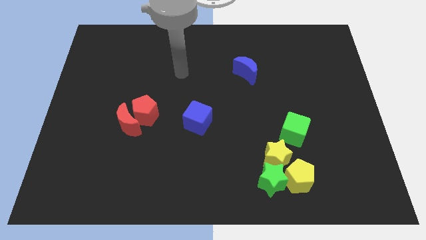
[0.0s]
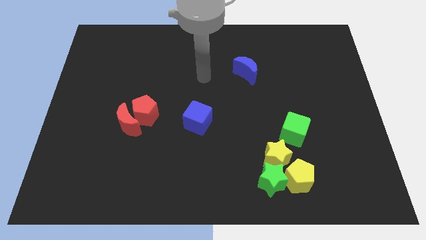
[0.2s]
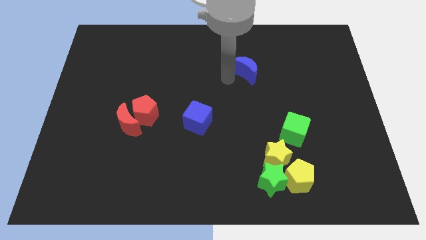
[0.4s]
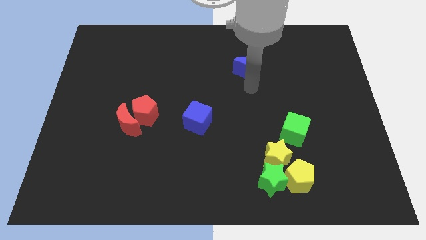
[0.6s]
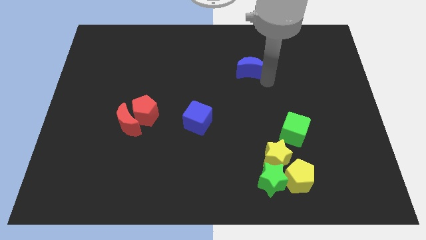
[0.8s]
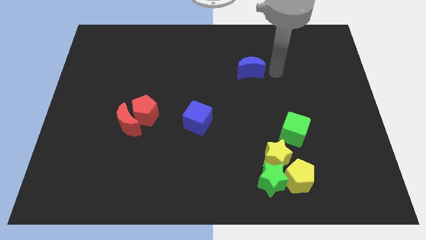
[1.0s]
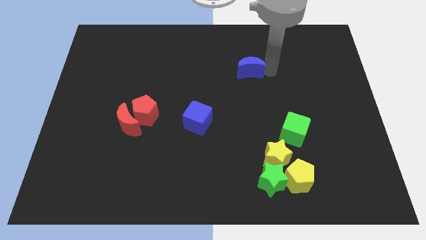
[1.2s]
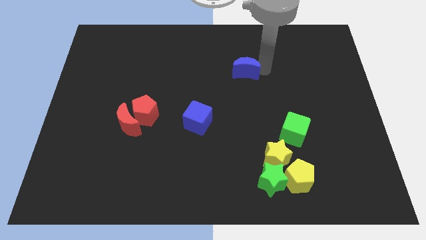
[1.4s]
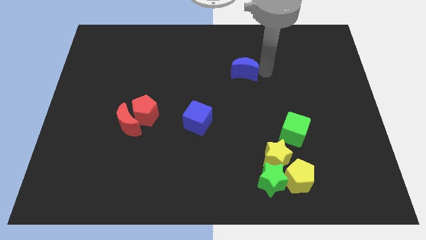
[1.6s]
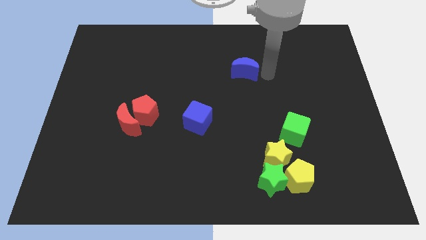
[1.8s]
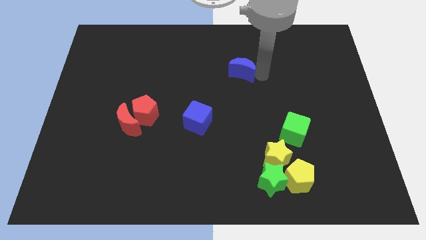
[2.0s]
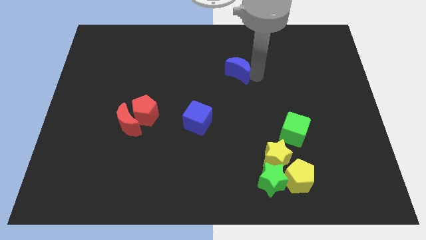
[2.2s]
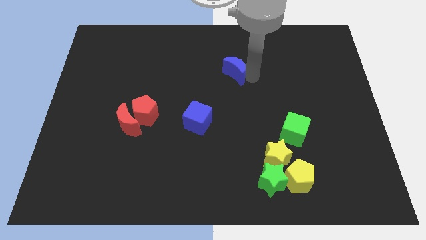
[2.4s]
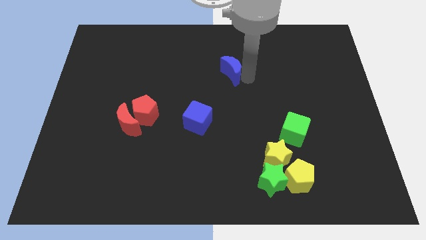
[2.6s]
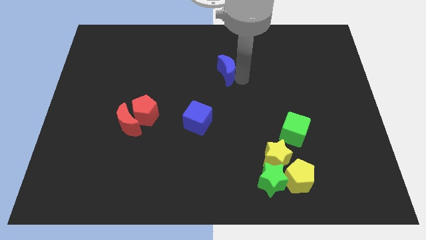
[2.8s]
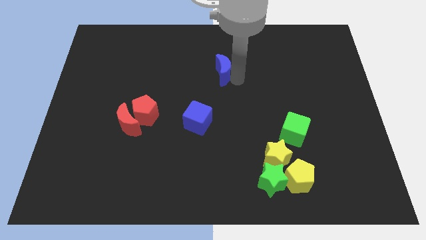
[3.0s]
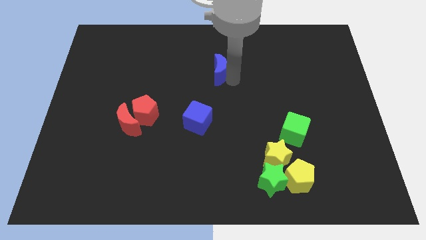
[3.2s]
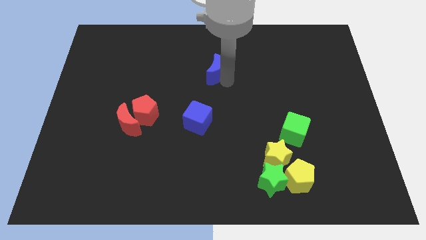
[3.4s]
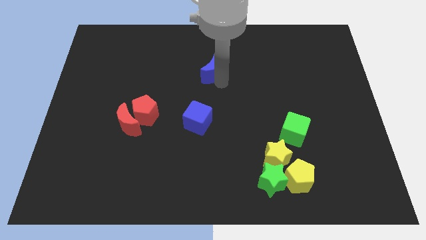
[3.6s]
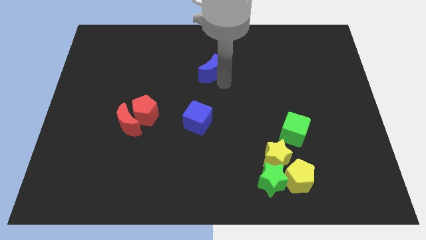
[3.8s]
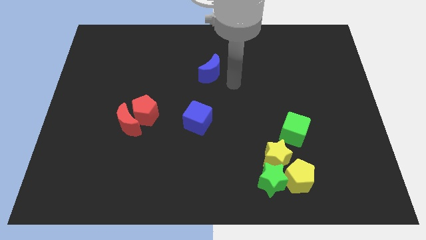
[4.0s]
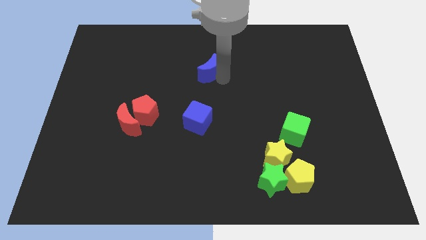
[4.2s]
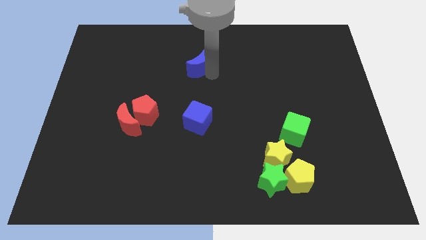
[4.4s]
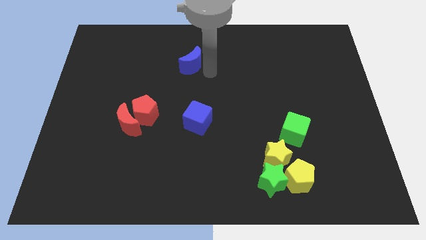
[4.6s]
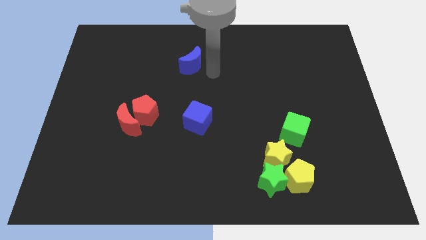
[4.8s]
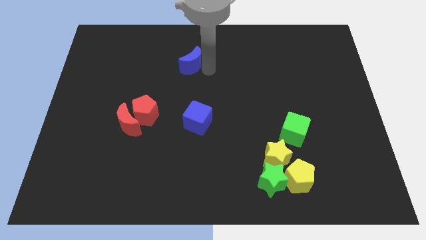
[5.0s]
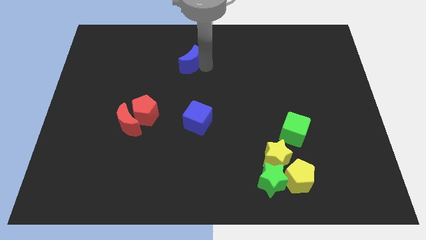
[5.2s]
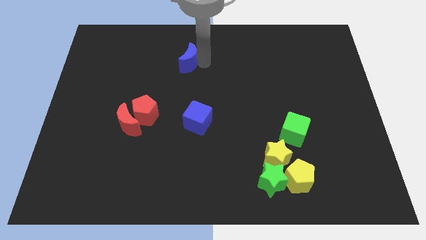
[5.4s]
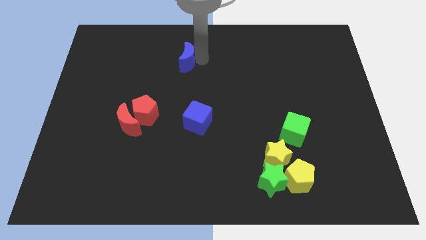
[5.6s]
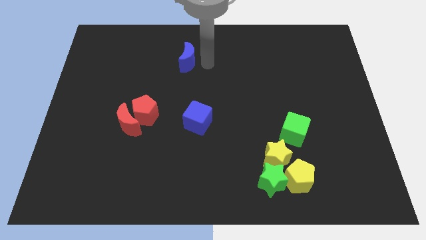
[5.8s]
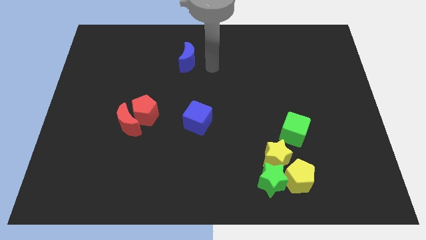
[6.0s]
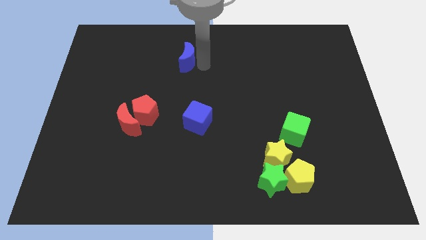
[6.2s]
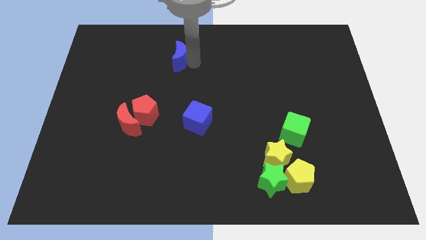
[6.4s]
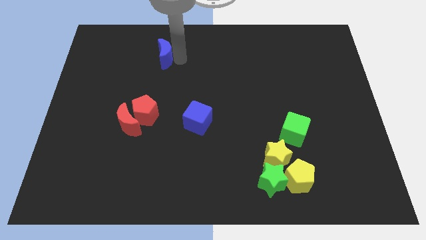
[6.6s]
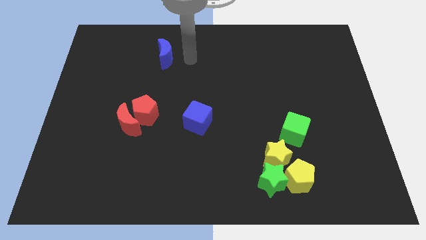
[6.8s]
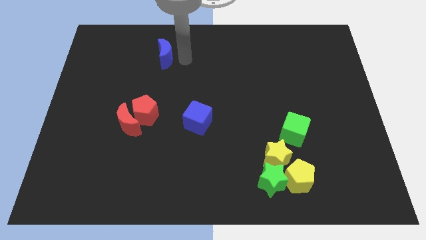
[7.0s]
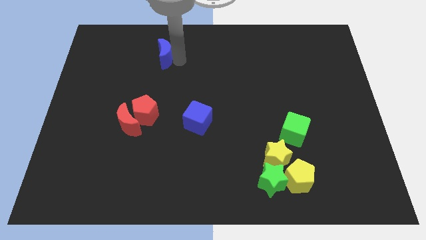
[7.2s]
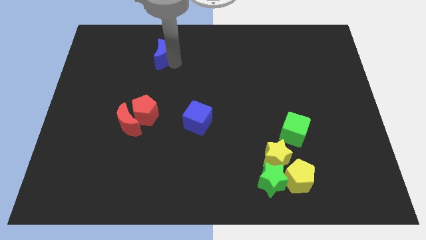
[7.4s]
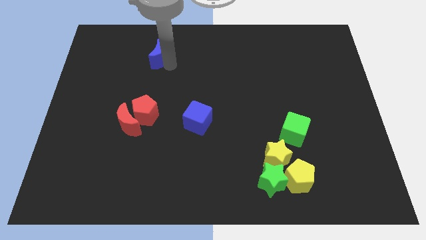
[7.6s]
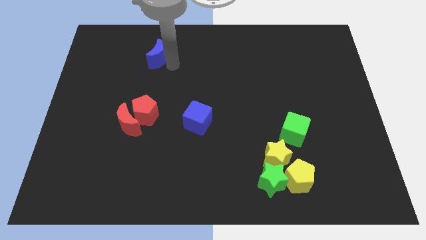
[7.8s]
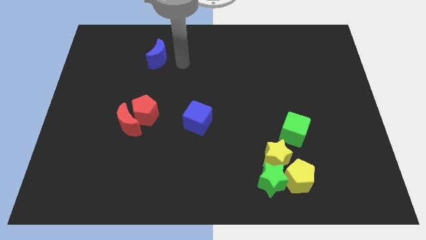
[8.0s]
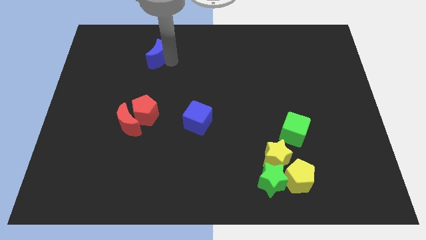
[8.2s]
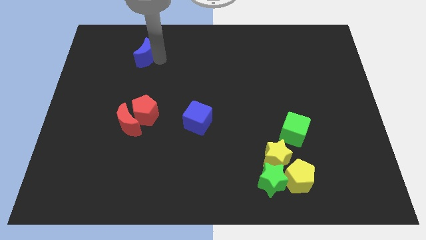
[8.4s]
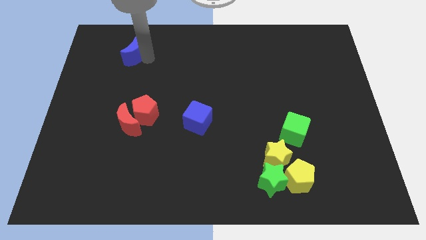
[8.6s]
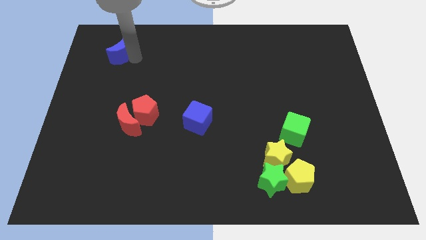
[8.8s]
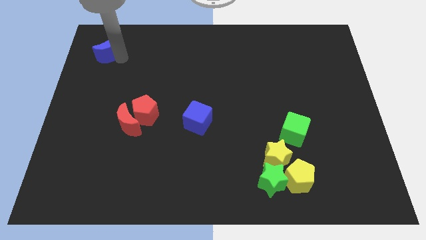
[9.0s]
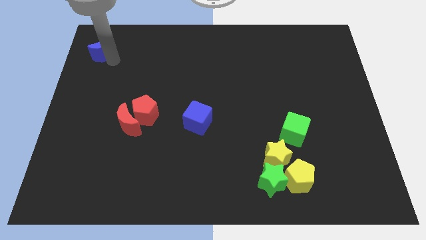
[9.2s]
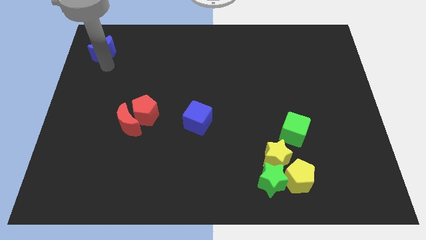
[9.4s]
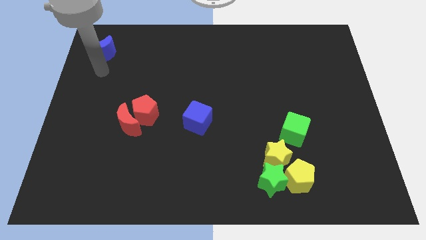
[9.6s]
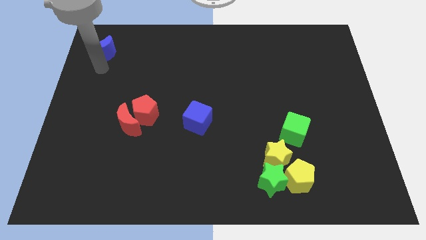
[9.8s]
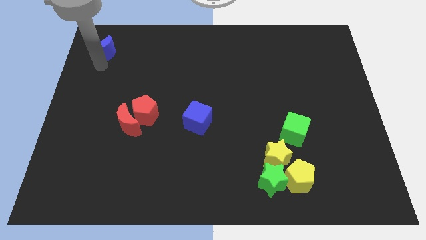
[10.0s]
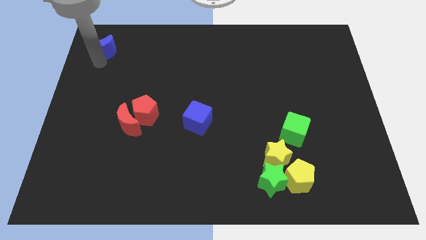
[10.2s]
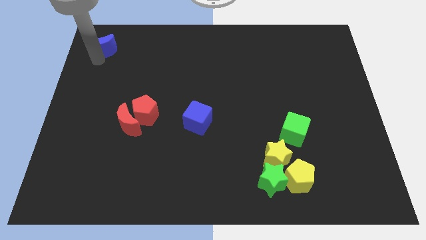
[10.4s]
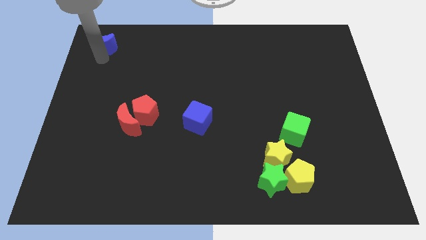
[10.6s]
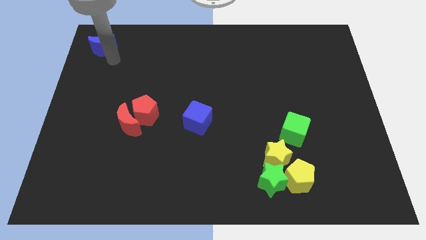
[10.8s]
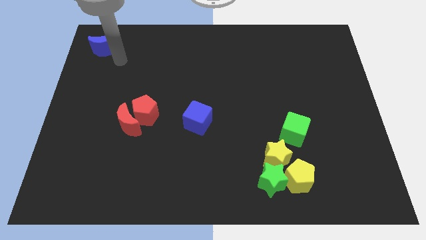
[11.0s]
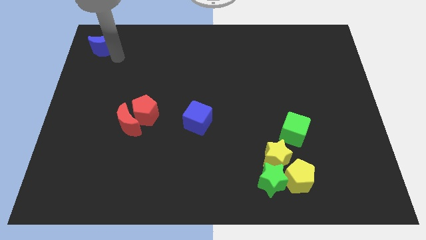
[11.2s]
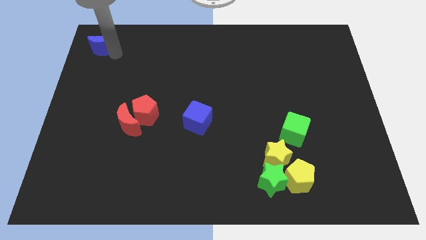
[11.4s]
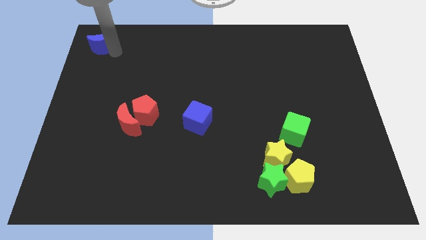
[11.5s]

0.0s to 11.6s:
push the blue moon to the top left corner

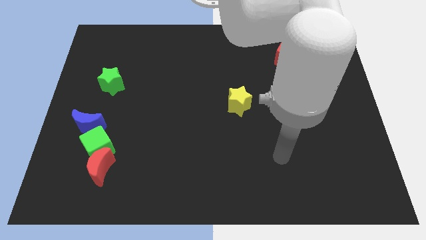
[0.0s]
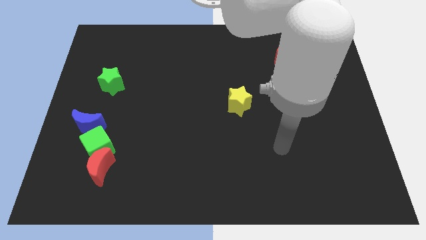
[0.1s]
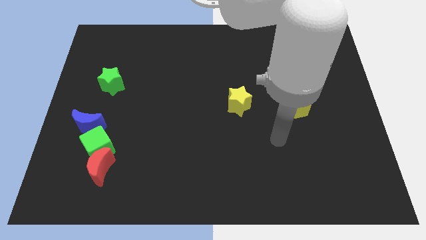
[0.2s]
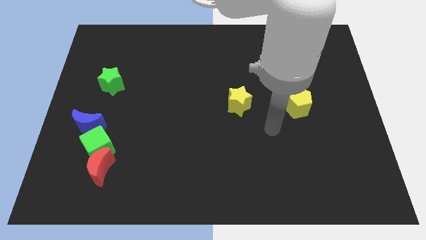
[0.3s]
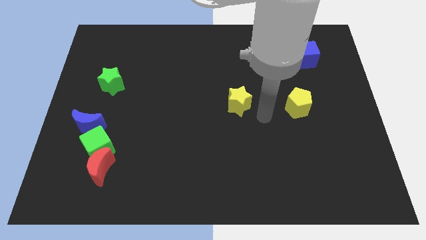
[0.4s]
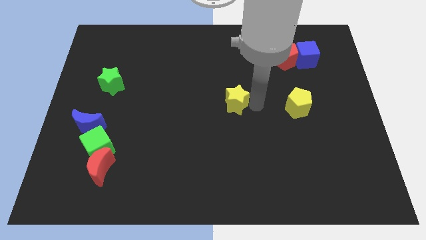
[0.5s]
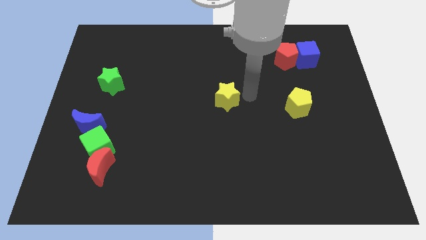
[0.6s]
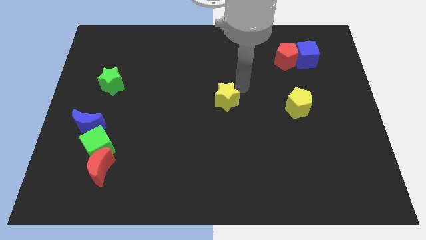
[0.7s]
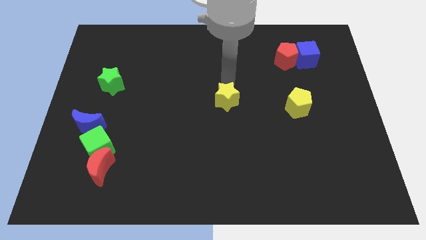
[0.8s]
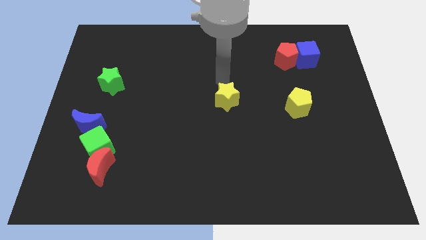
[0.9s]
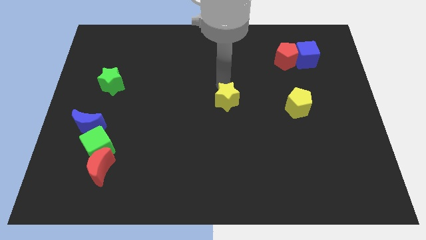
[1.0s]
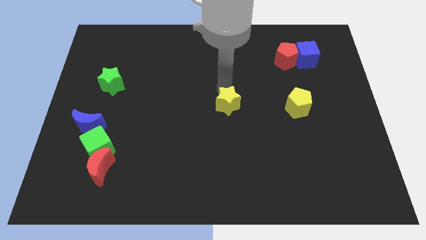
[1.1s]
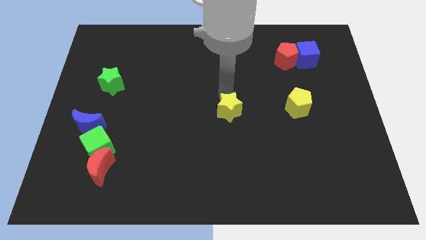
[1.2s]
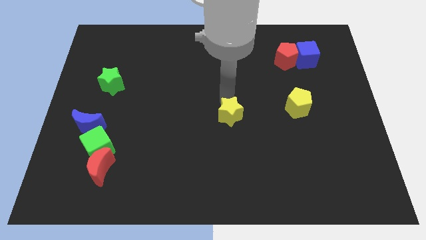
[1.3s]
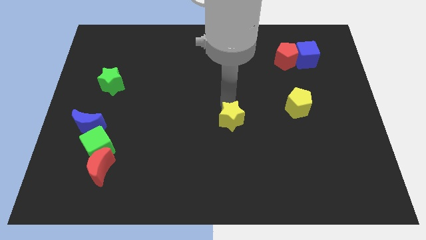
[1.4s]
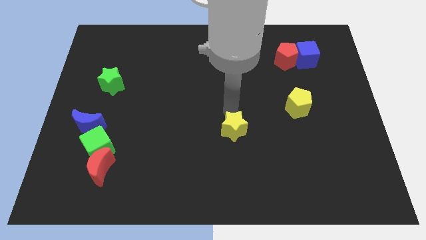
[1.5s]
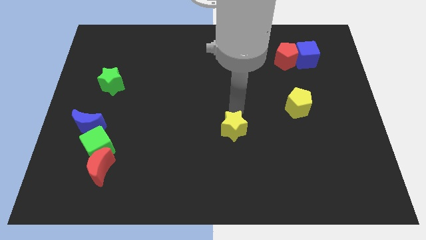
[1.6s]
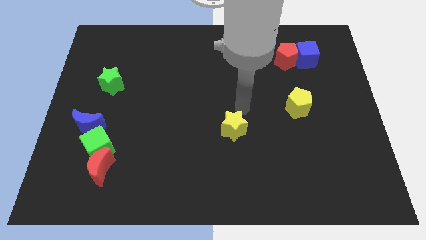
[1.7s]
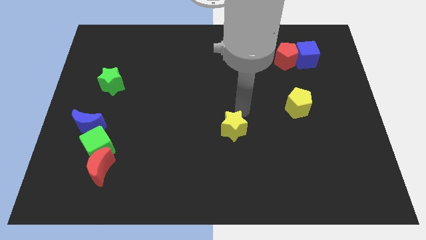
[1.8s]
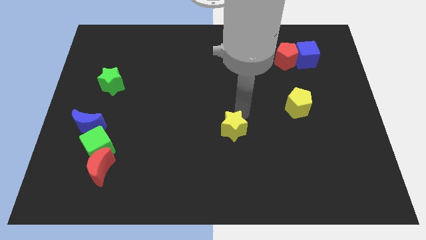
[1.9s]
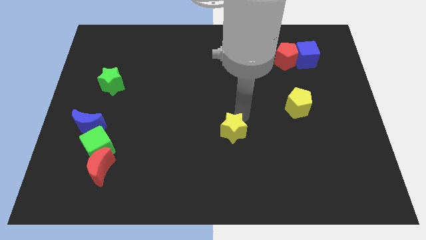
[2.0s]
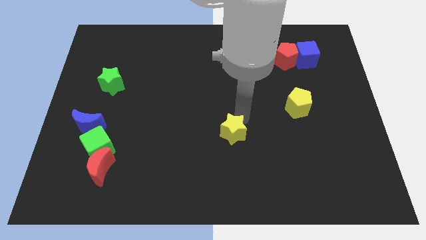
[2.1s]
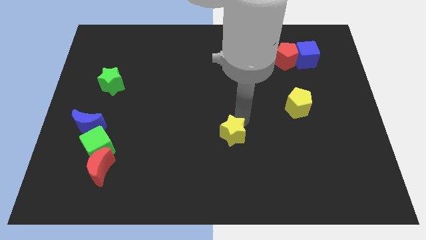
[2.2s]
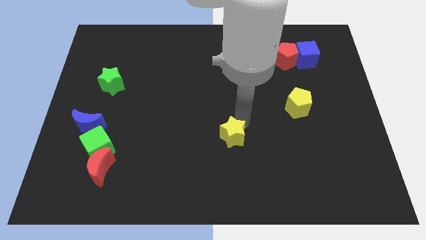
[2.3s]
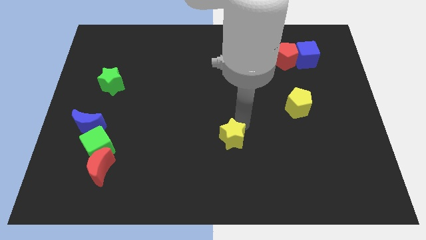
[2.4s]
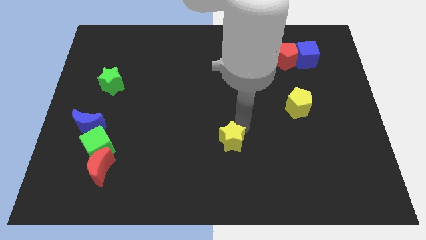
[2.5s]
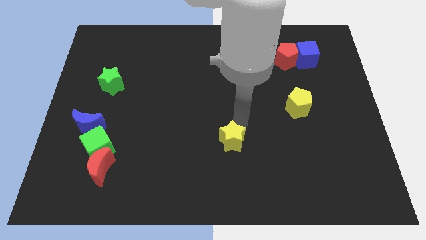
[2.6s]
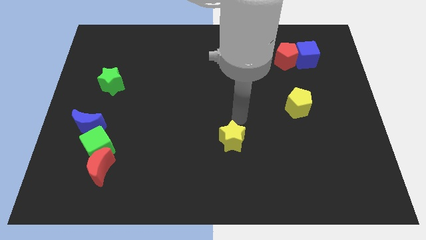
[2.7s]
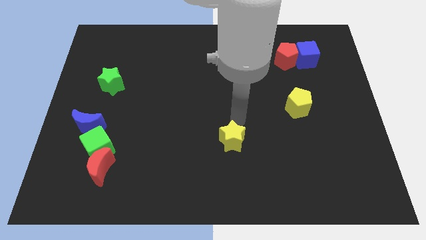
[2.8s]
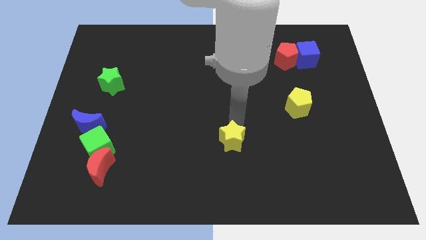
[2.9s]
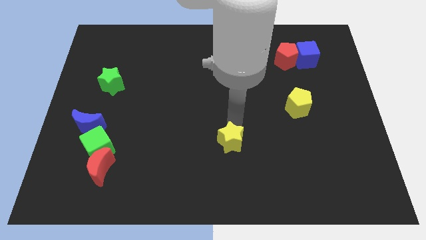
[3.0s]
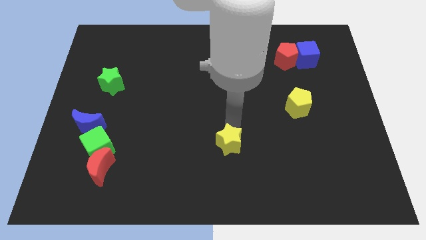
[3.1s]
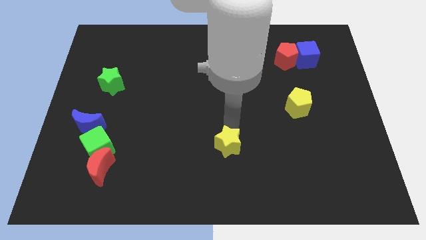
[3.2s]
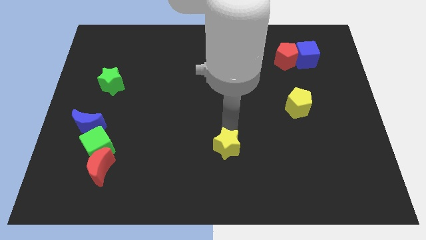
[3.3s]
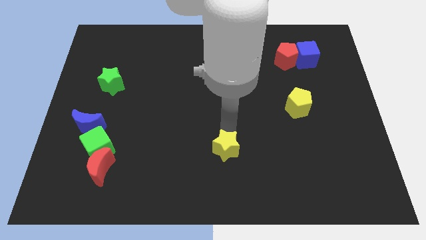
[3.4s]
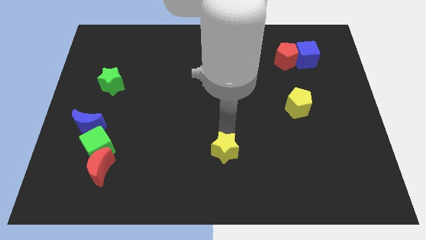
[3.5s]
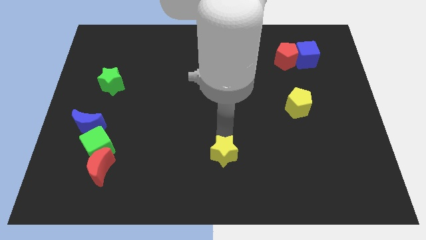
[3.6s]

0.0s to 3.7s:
slide the yellow star to the bottom
